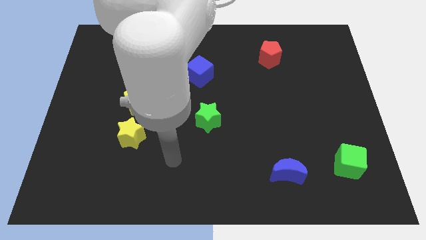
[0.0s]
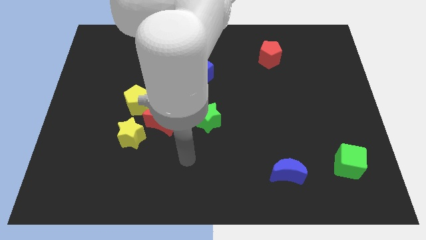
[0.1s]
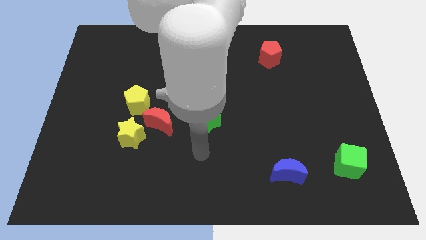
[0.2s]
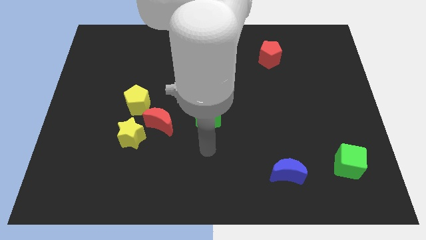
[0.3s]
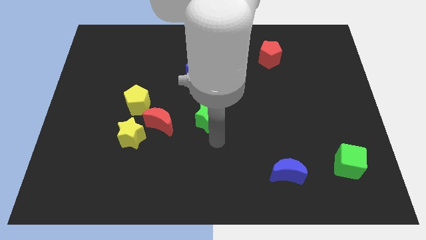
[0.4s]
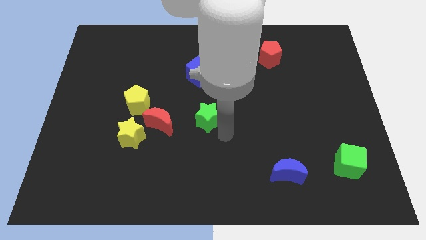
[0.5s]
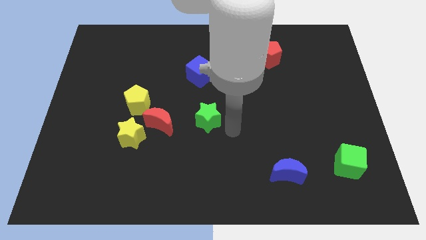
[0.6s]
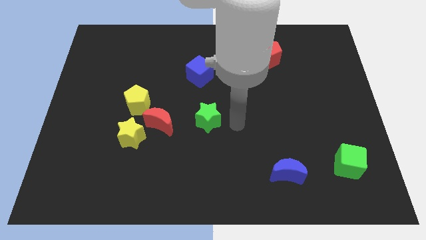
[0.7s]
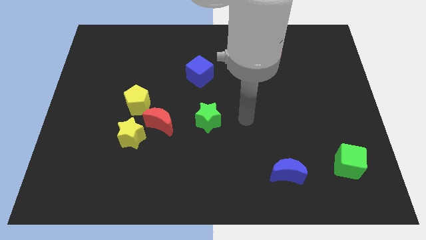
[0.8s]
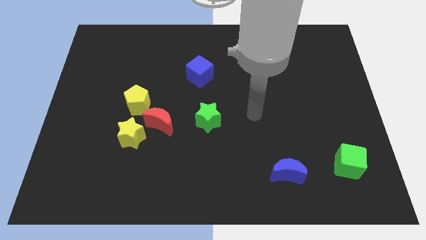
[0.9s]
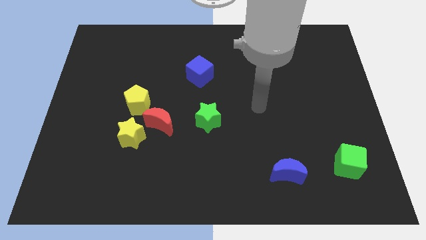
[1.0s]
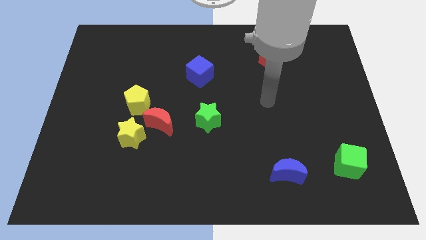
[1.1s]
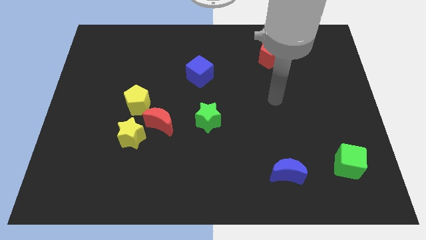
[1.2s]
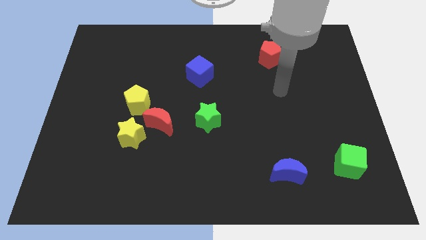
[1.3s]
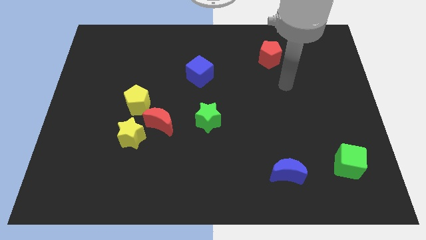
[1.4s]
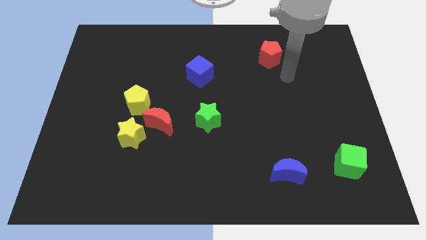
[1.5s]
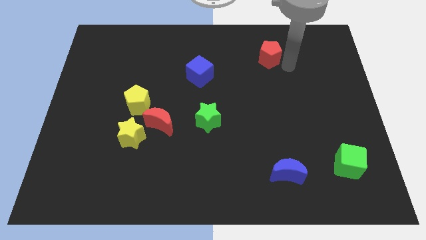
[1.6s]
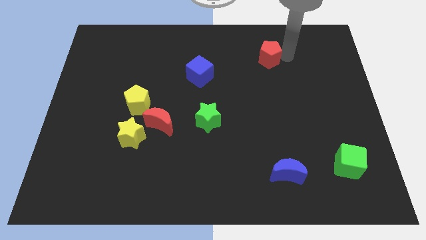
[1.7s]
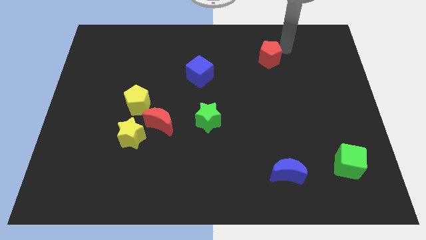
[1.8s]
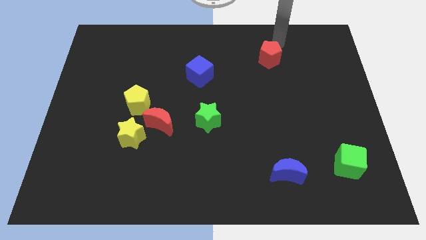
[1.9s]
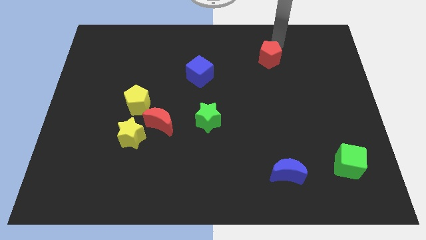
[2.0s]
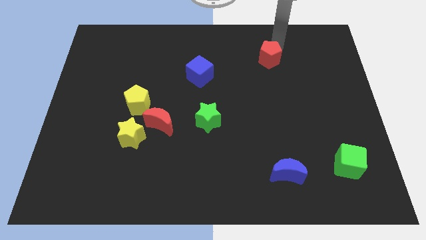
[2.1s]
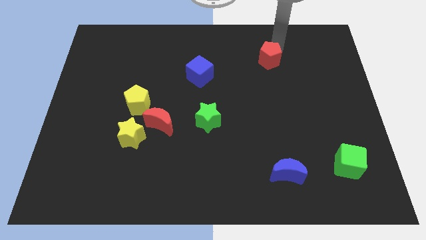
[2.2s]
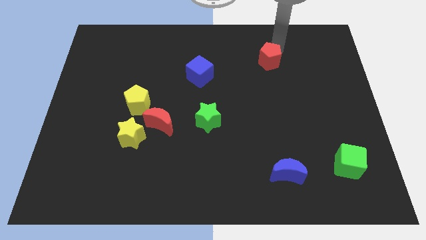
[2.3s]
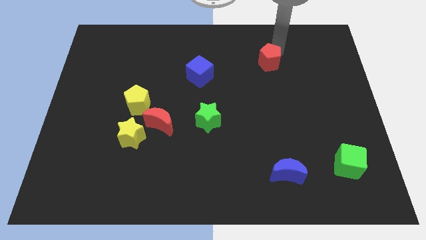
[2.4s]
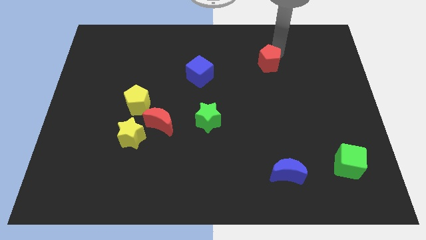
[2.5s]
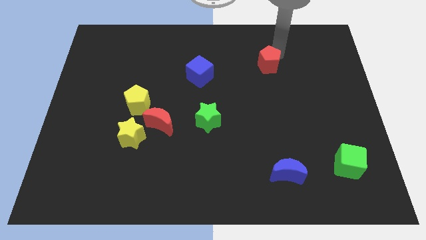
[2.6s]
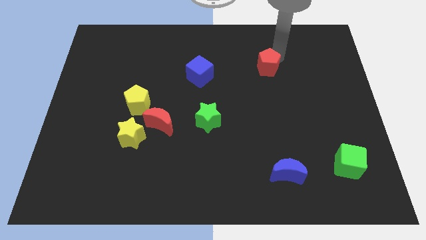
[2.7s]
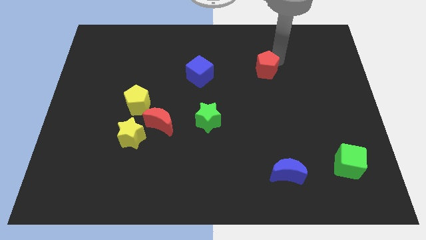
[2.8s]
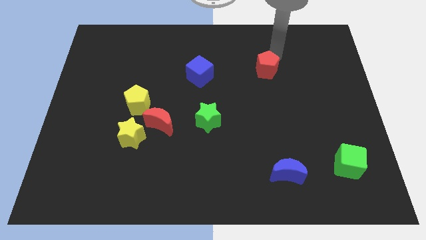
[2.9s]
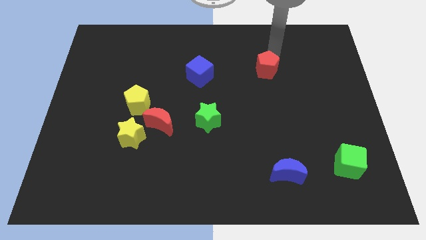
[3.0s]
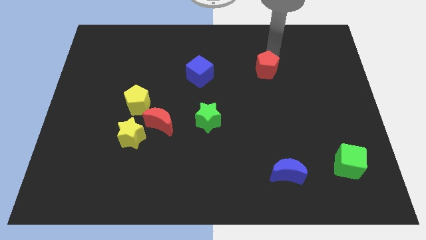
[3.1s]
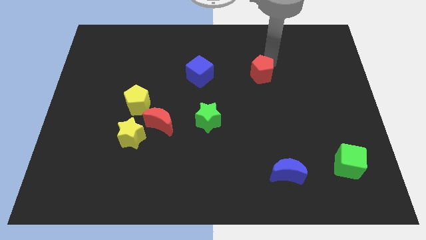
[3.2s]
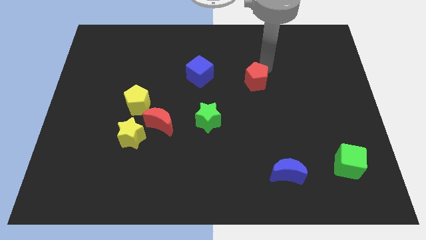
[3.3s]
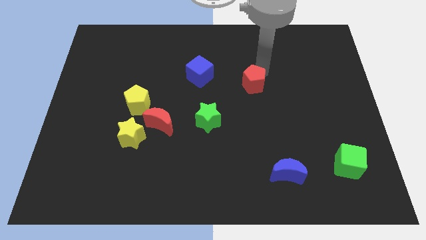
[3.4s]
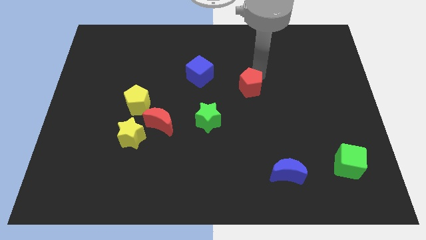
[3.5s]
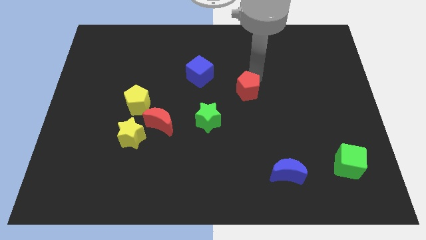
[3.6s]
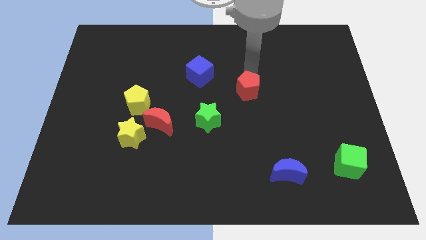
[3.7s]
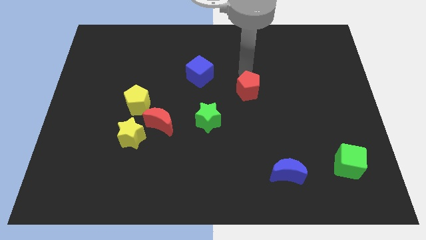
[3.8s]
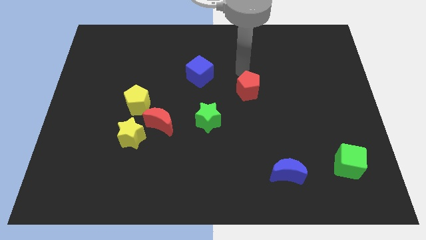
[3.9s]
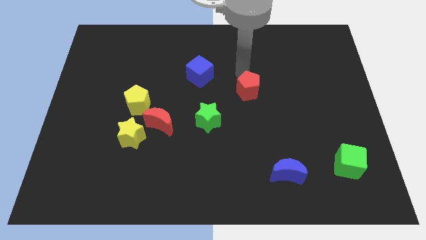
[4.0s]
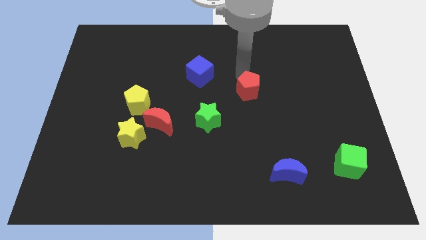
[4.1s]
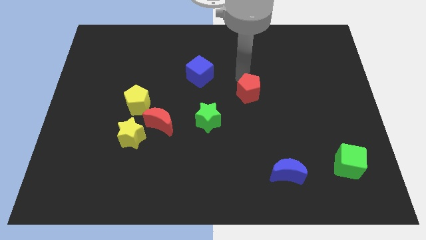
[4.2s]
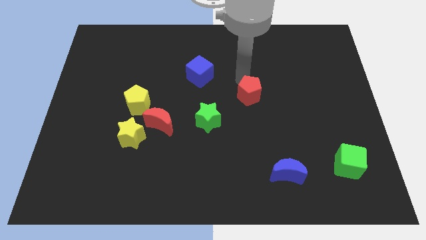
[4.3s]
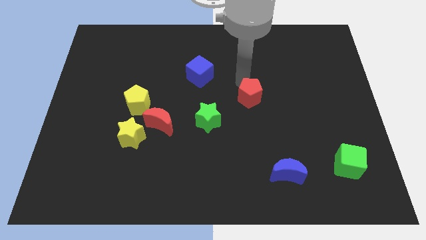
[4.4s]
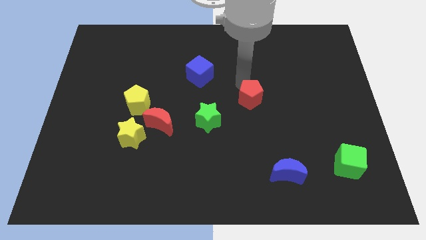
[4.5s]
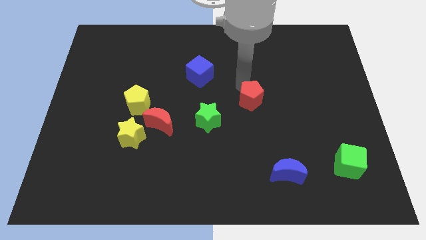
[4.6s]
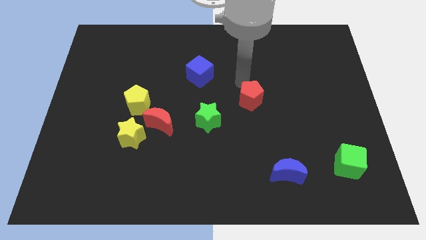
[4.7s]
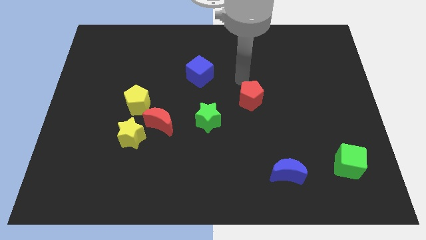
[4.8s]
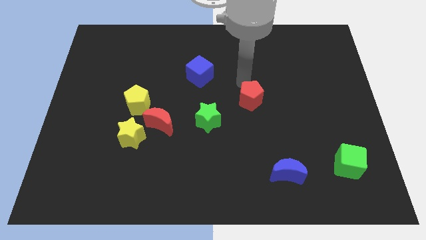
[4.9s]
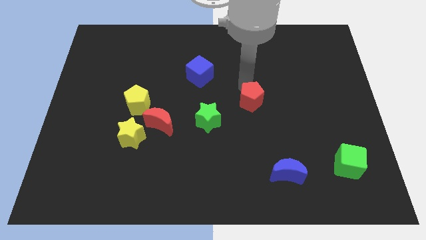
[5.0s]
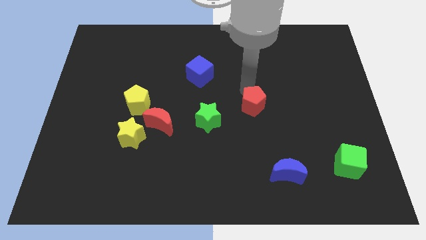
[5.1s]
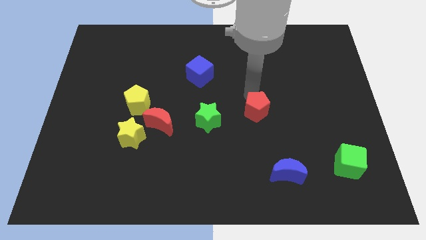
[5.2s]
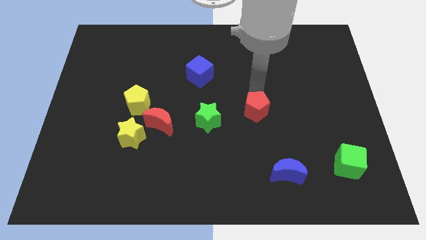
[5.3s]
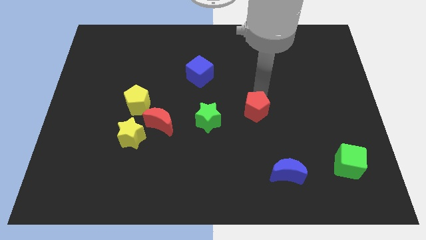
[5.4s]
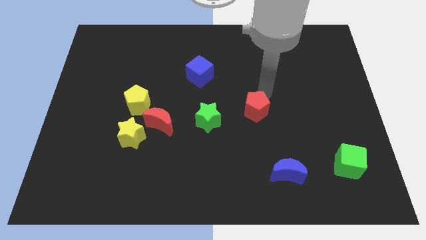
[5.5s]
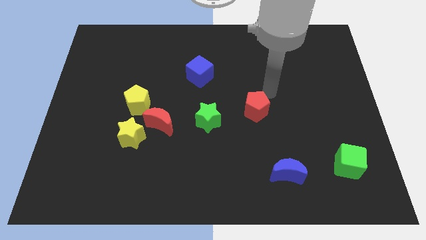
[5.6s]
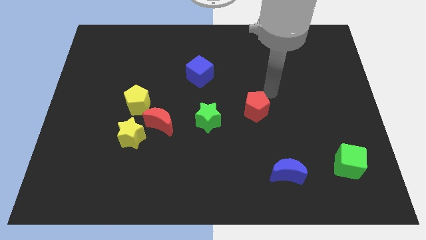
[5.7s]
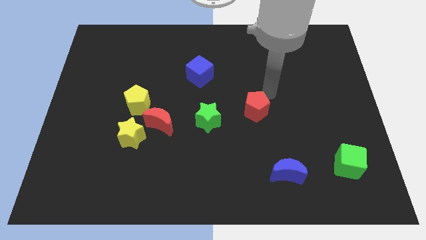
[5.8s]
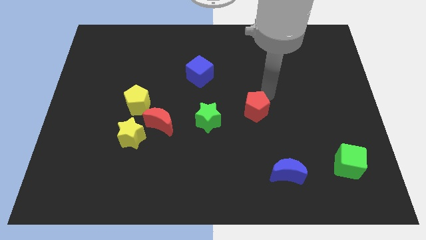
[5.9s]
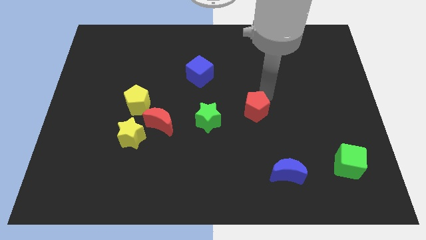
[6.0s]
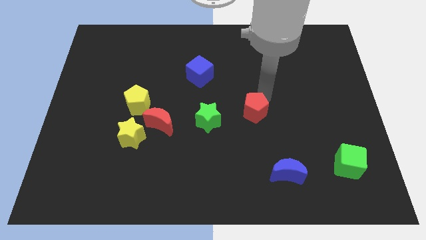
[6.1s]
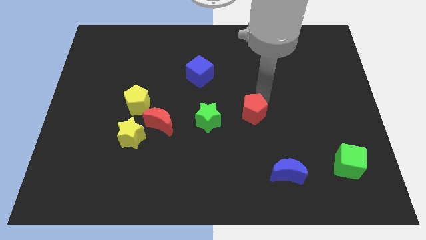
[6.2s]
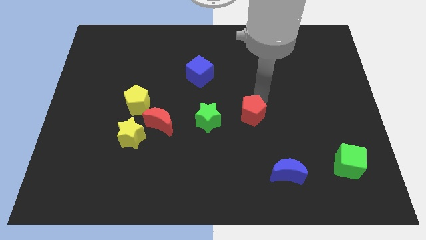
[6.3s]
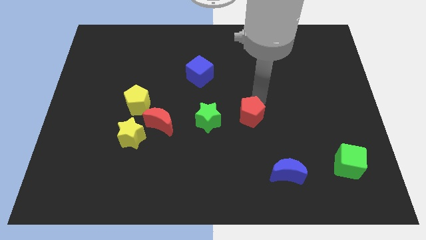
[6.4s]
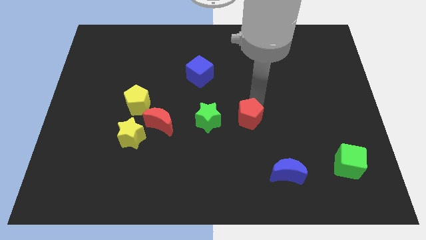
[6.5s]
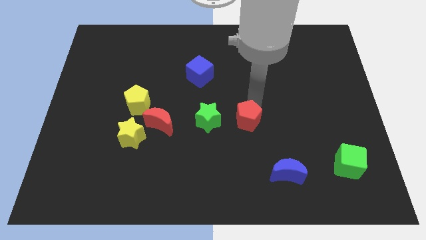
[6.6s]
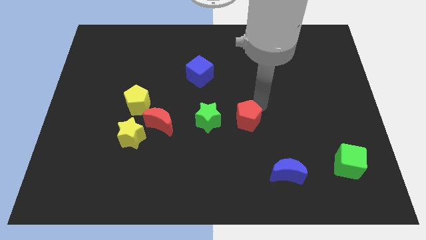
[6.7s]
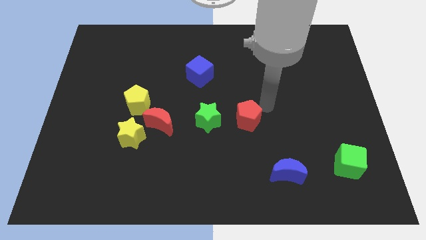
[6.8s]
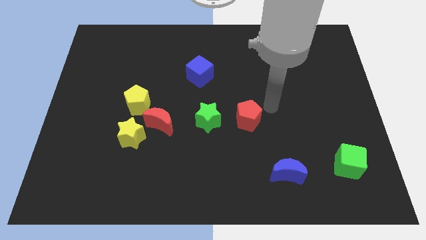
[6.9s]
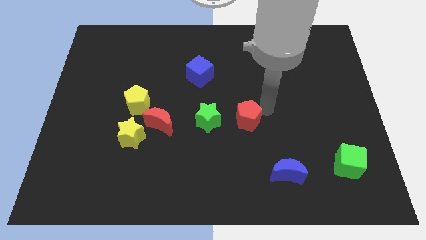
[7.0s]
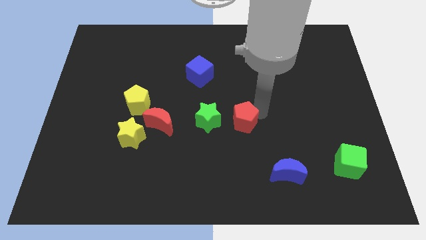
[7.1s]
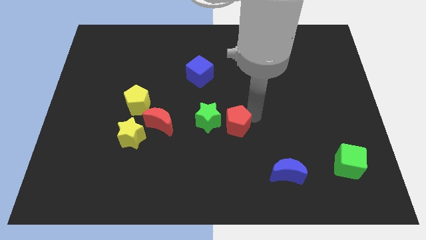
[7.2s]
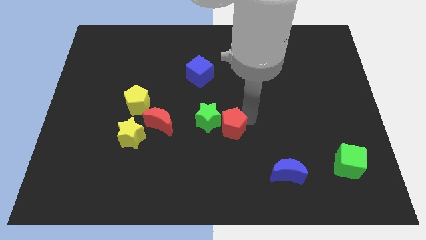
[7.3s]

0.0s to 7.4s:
slide the red pentagon downwards and left diagonally

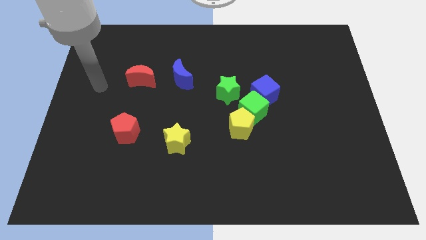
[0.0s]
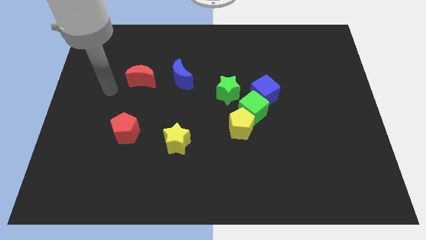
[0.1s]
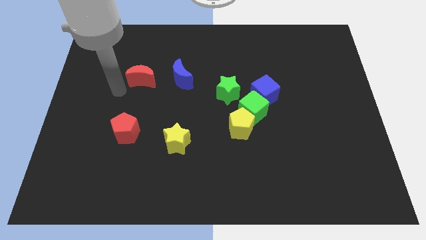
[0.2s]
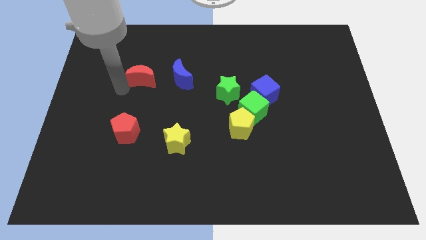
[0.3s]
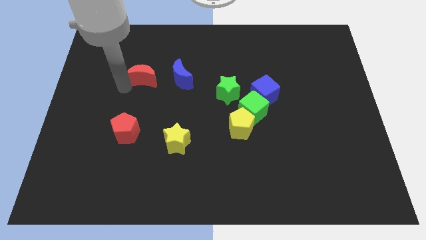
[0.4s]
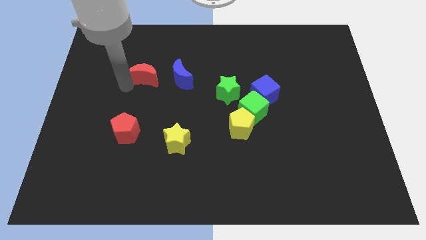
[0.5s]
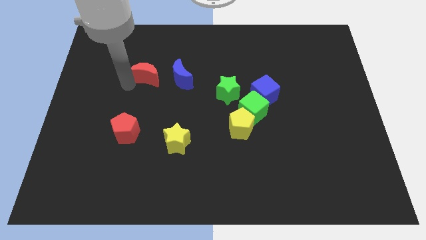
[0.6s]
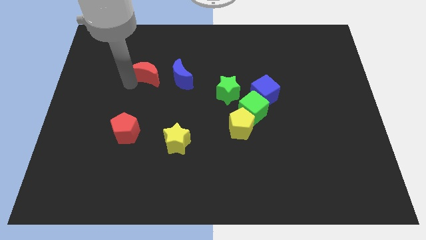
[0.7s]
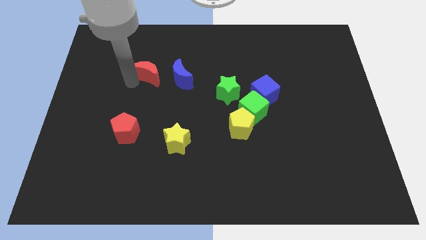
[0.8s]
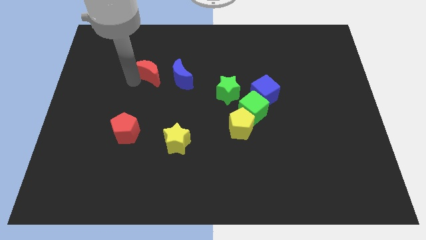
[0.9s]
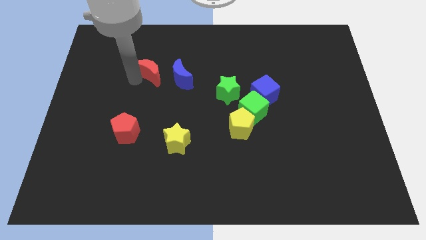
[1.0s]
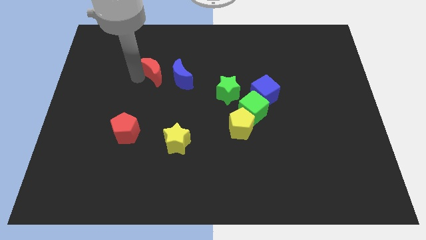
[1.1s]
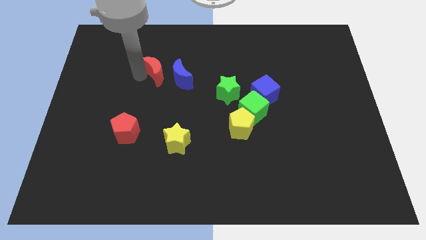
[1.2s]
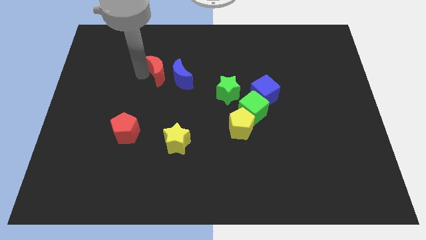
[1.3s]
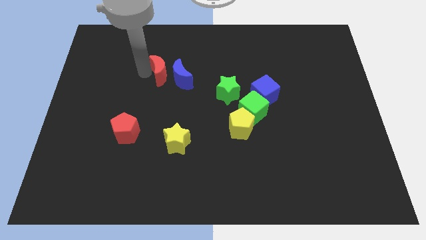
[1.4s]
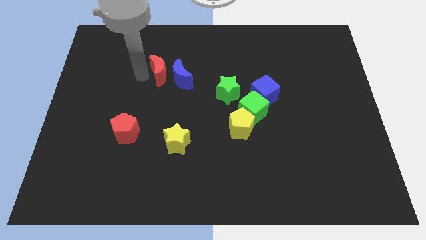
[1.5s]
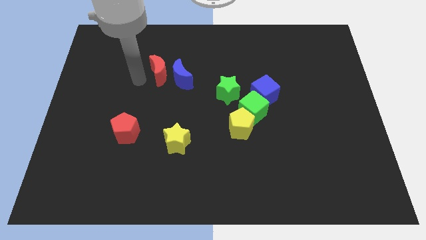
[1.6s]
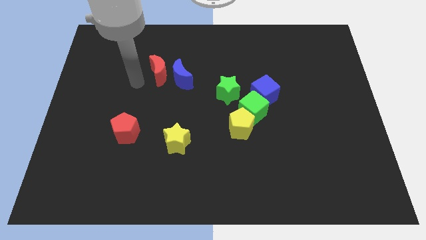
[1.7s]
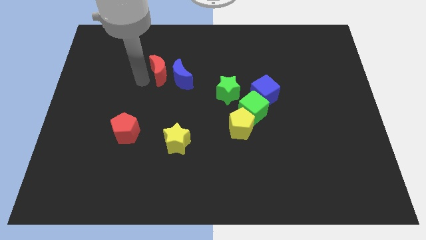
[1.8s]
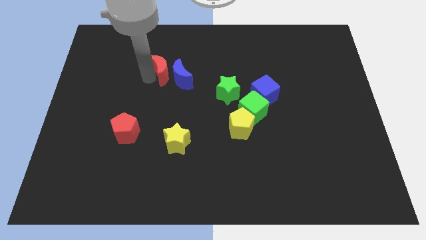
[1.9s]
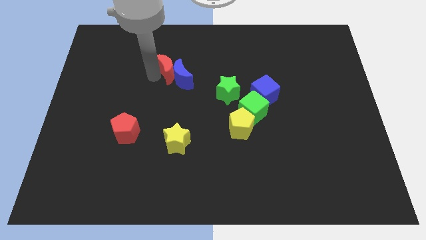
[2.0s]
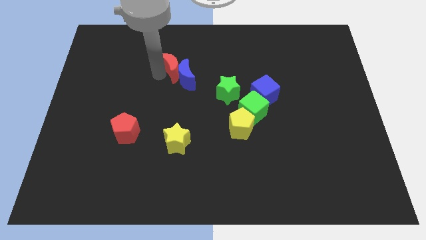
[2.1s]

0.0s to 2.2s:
push the red moon to the right slightly
